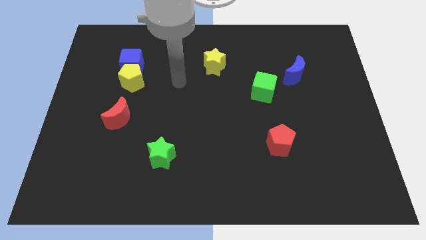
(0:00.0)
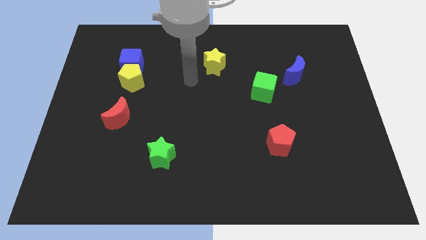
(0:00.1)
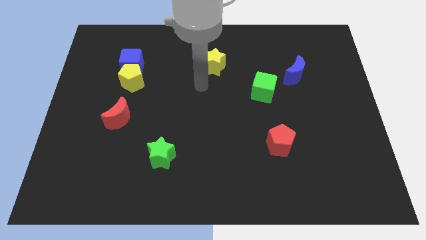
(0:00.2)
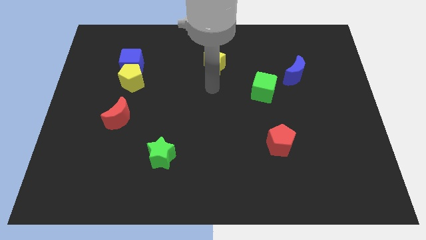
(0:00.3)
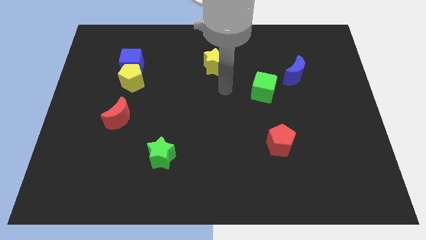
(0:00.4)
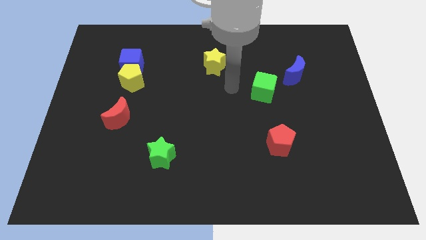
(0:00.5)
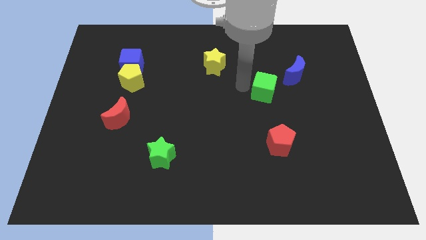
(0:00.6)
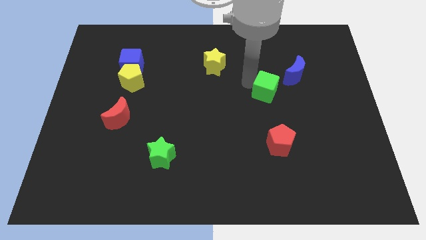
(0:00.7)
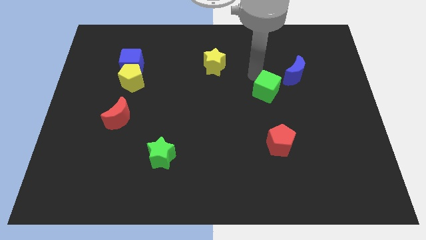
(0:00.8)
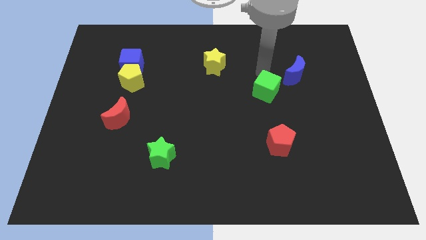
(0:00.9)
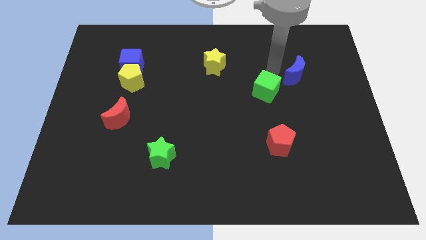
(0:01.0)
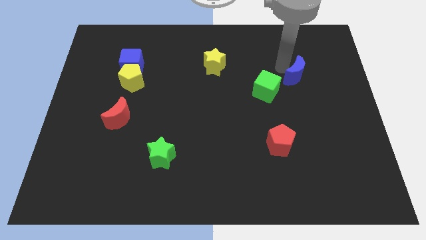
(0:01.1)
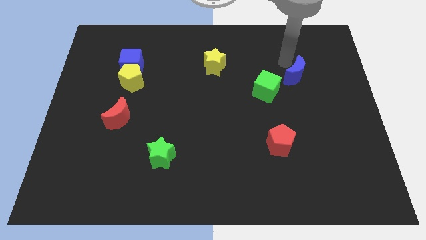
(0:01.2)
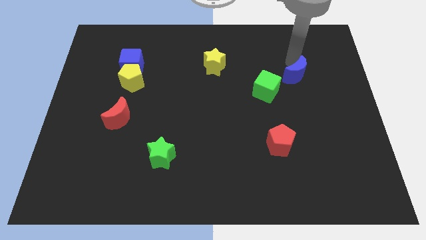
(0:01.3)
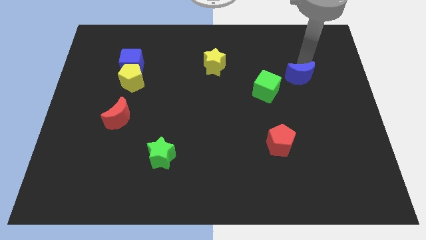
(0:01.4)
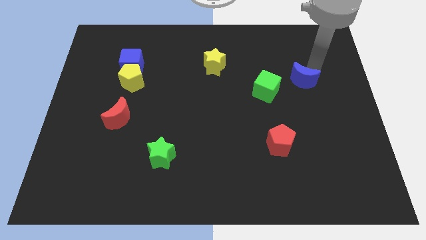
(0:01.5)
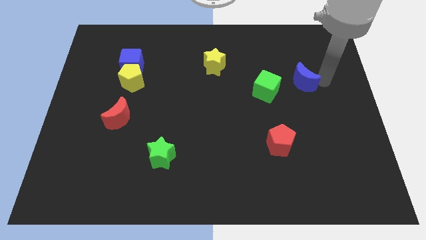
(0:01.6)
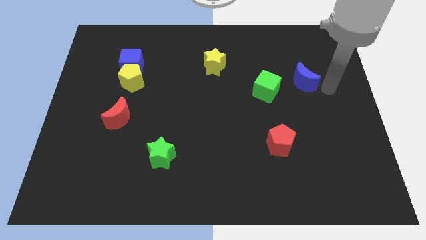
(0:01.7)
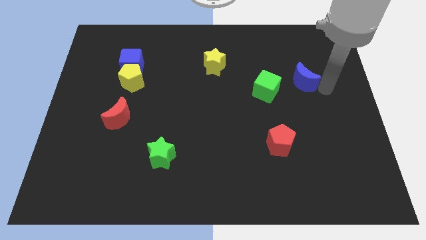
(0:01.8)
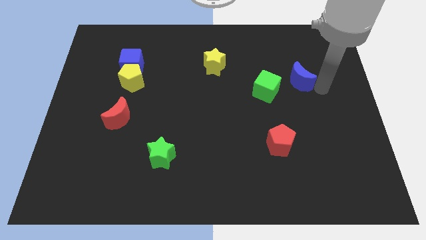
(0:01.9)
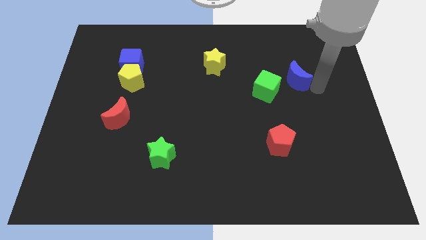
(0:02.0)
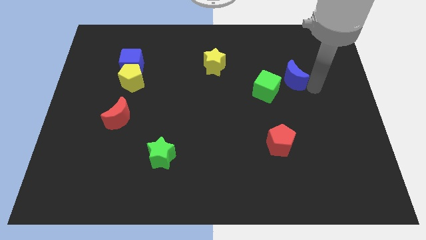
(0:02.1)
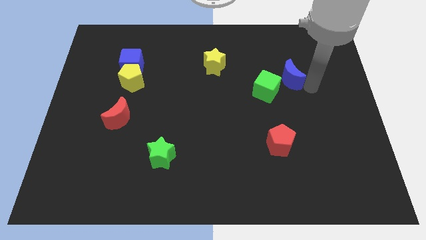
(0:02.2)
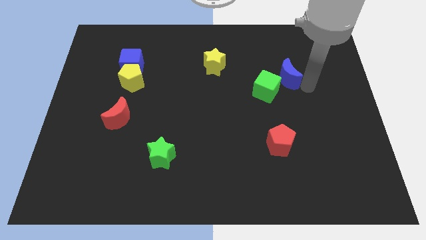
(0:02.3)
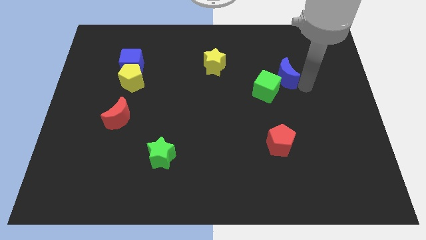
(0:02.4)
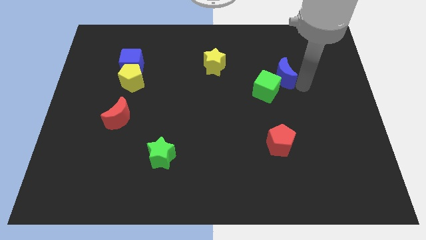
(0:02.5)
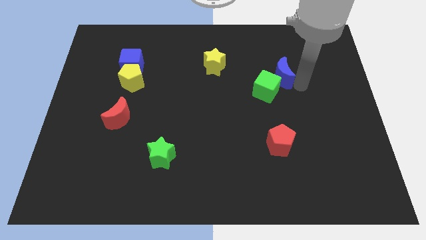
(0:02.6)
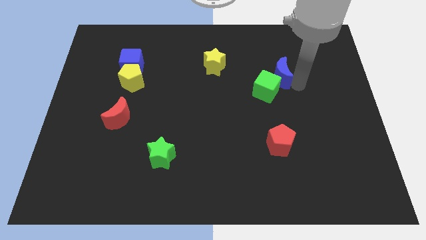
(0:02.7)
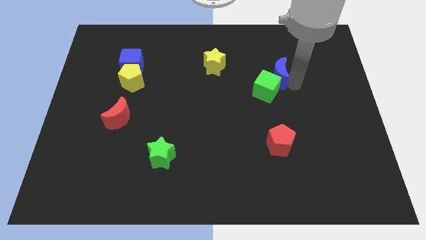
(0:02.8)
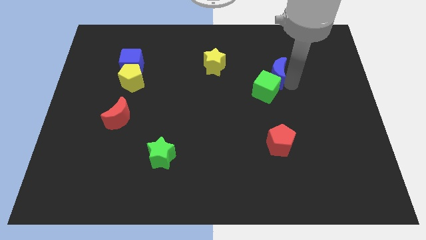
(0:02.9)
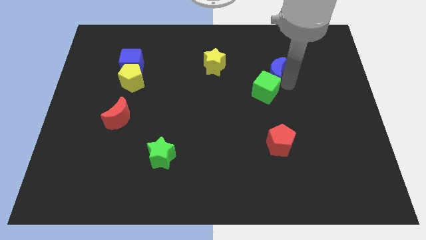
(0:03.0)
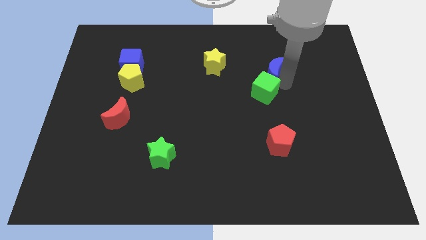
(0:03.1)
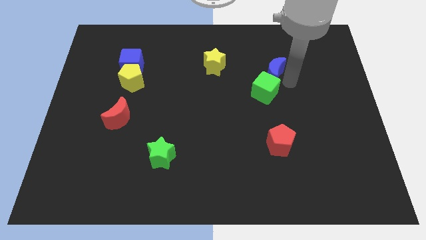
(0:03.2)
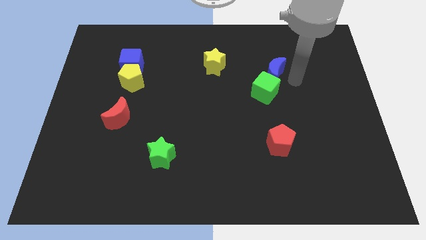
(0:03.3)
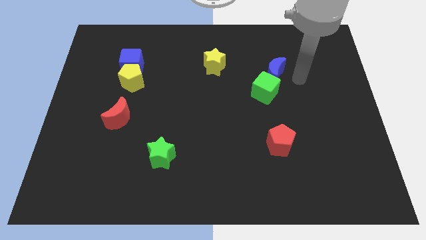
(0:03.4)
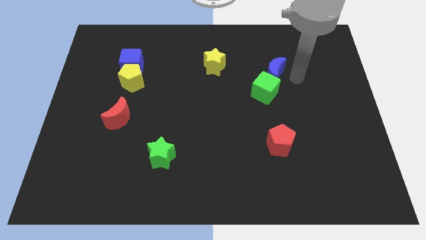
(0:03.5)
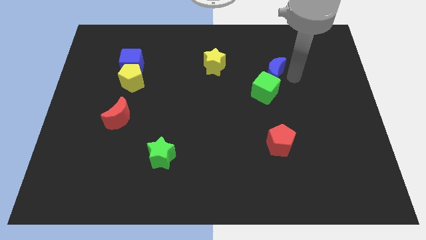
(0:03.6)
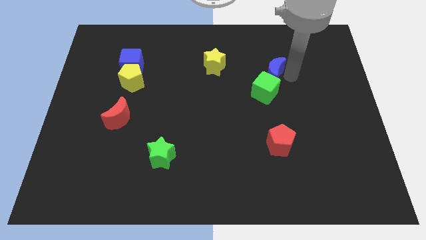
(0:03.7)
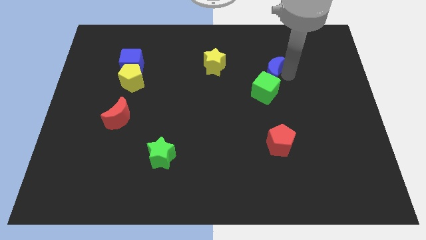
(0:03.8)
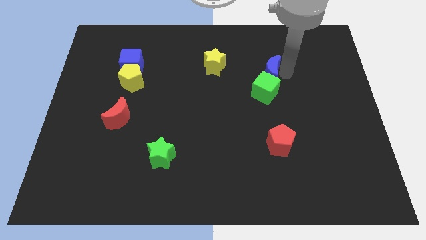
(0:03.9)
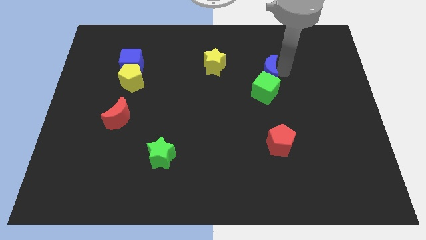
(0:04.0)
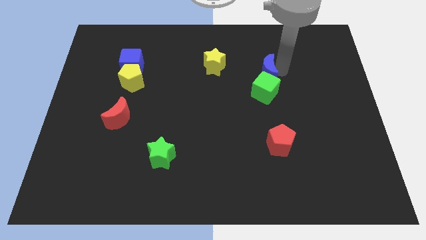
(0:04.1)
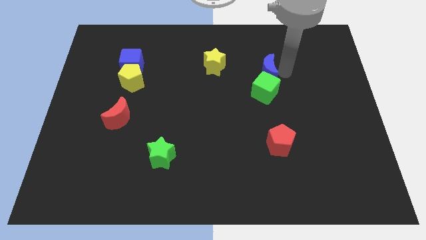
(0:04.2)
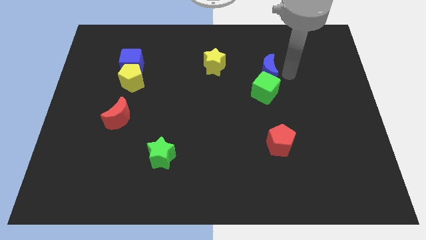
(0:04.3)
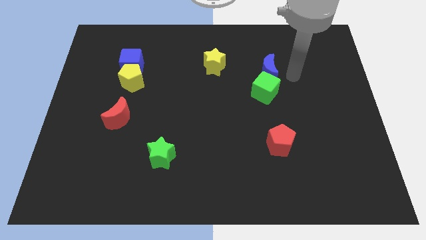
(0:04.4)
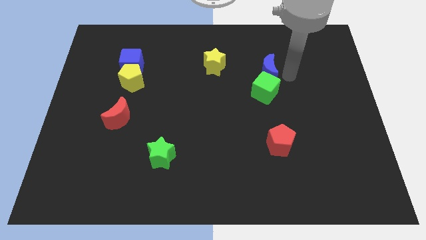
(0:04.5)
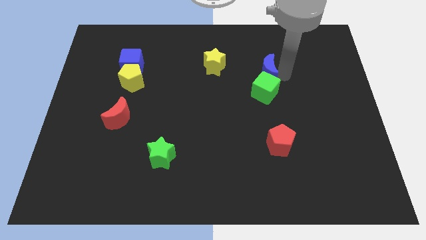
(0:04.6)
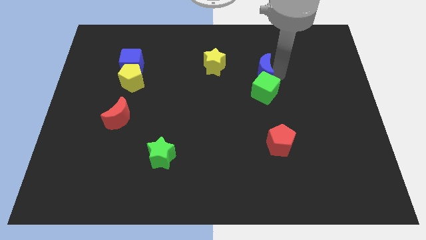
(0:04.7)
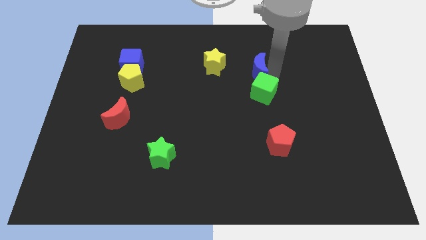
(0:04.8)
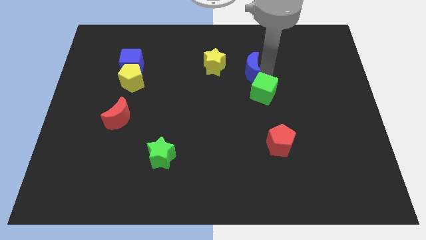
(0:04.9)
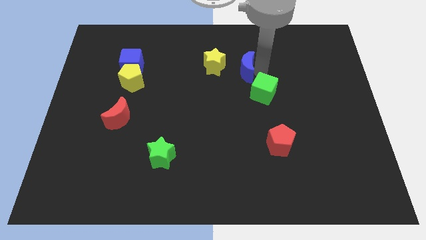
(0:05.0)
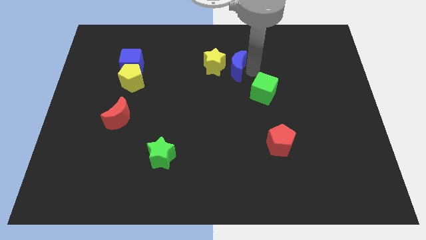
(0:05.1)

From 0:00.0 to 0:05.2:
push the blue moon next to the yellow star

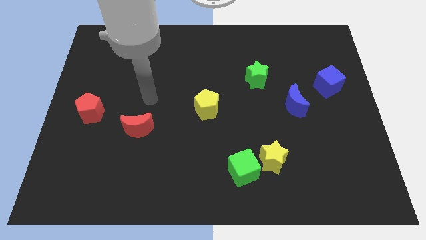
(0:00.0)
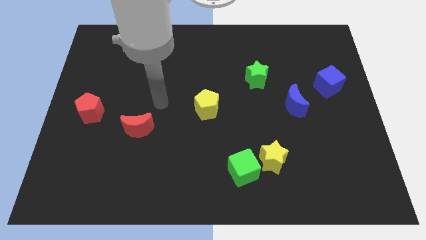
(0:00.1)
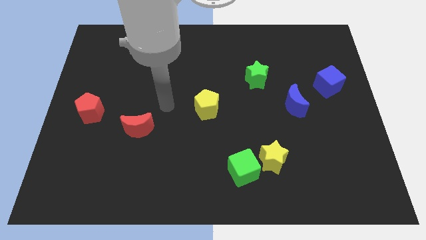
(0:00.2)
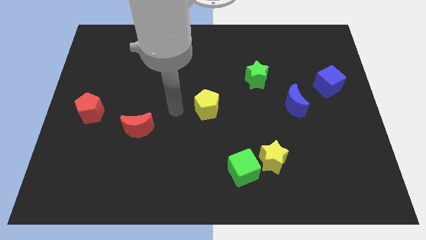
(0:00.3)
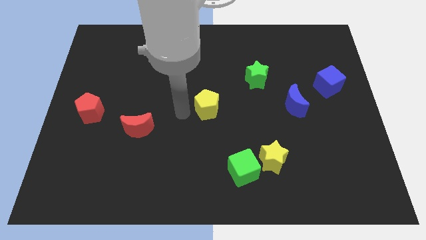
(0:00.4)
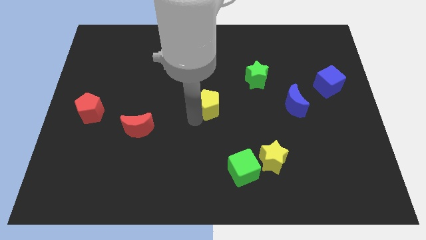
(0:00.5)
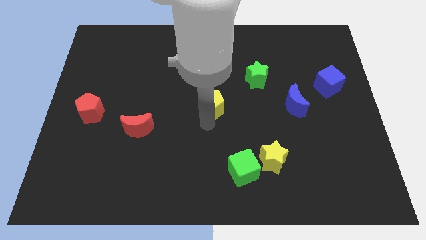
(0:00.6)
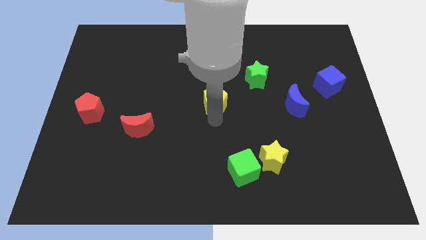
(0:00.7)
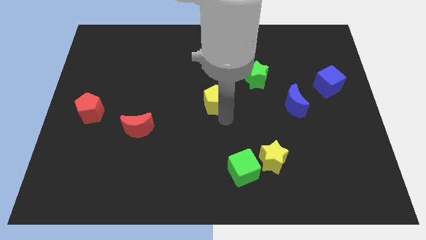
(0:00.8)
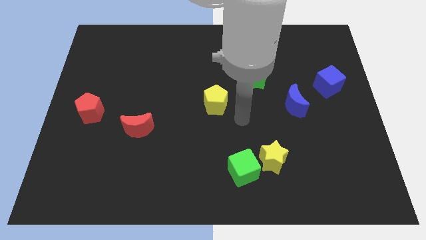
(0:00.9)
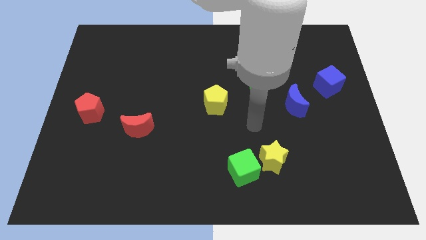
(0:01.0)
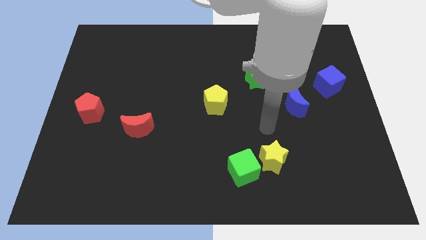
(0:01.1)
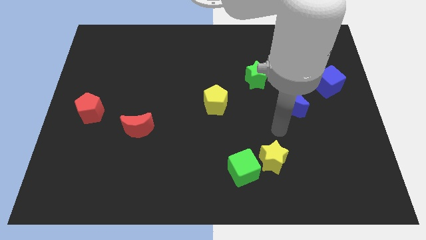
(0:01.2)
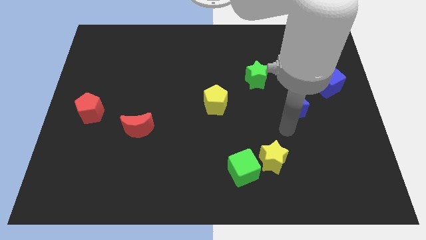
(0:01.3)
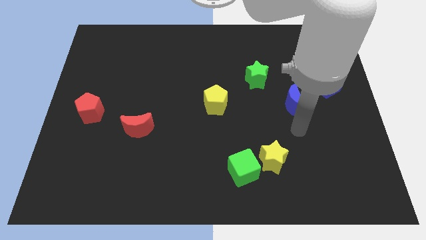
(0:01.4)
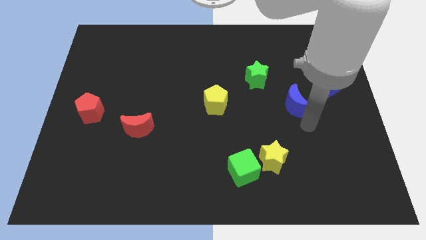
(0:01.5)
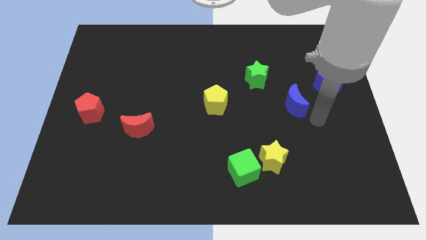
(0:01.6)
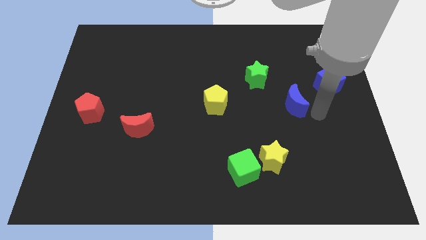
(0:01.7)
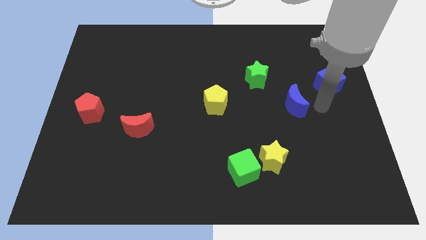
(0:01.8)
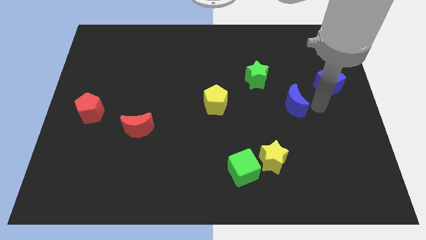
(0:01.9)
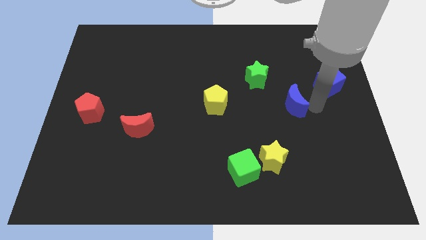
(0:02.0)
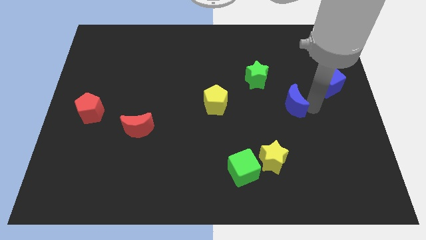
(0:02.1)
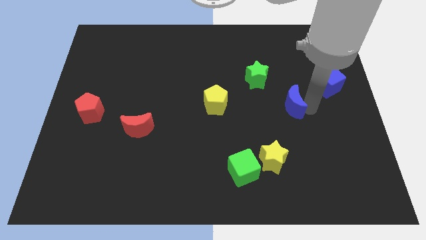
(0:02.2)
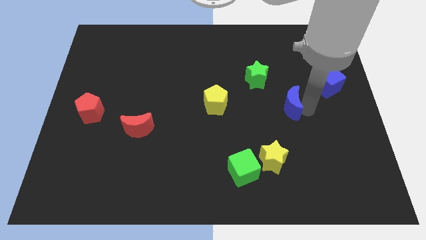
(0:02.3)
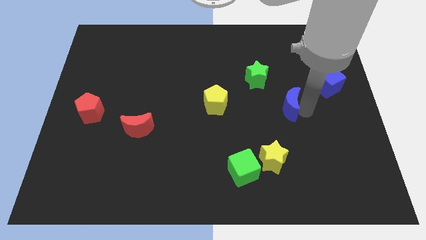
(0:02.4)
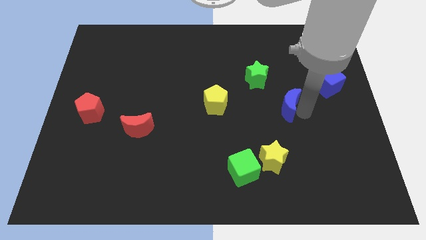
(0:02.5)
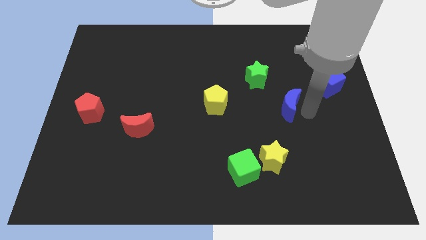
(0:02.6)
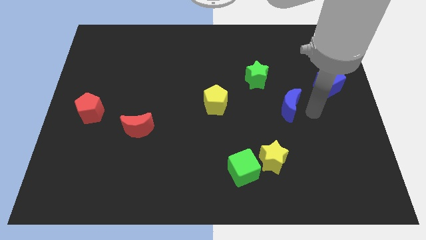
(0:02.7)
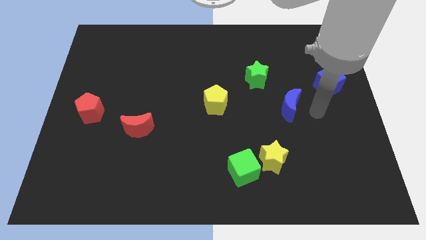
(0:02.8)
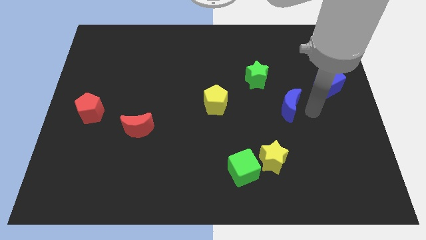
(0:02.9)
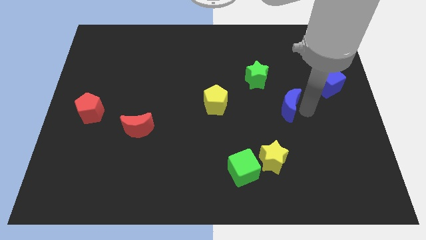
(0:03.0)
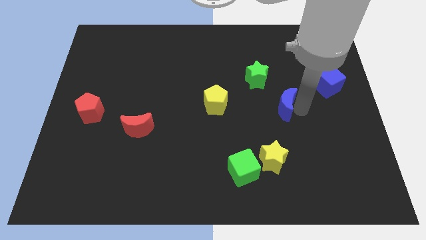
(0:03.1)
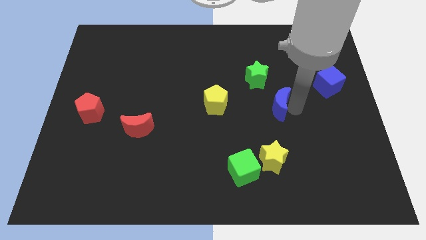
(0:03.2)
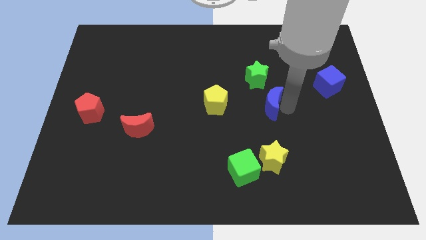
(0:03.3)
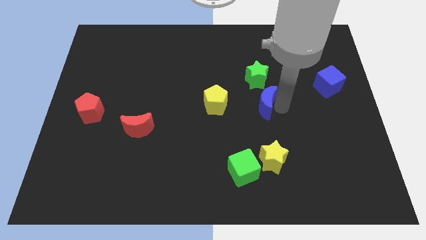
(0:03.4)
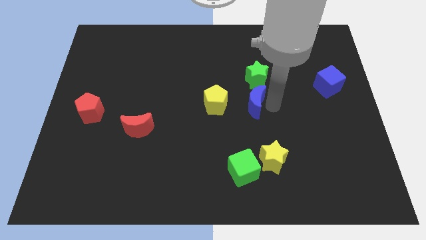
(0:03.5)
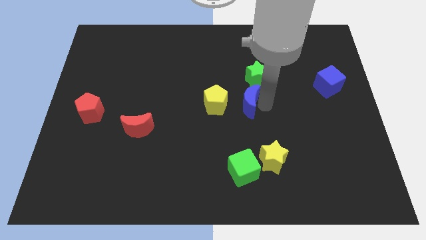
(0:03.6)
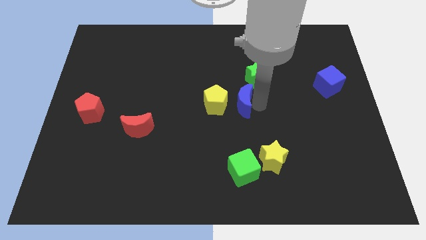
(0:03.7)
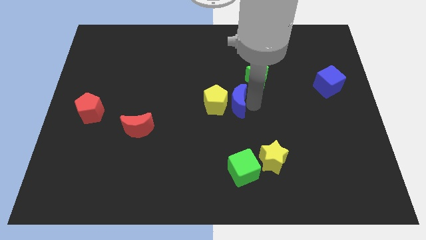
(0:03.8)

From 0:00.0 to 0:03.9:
move the blue moon next to the yellow pentagon
